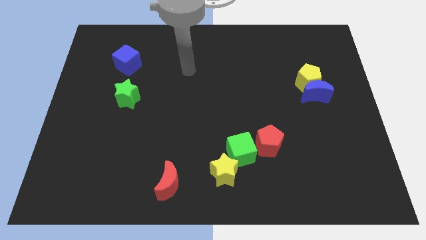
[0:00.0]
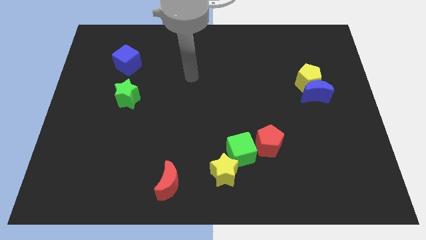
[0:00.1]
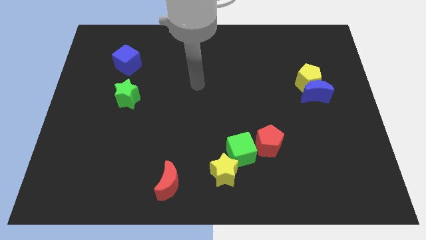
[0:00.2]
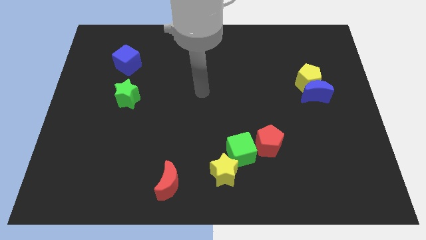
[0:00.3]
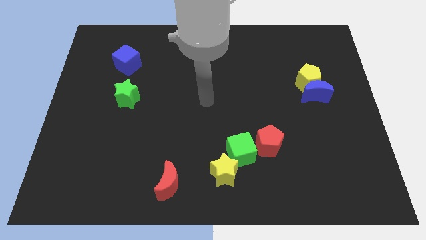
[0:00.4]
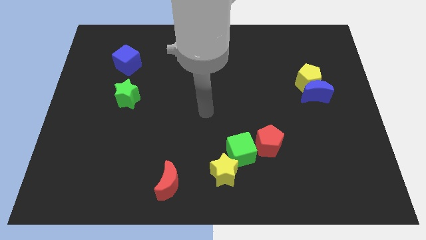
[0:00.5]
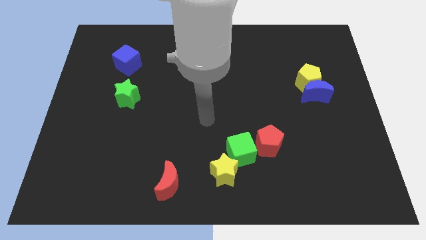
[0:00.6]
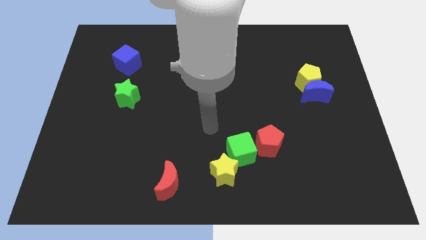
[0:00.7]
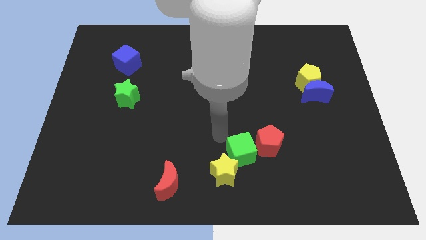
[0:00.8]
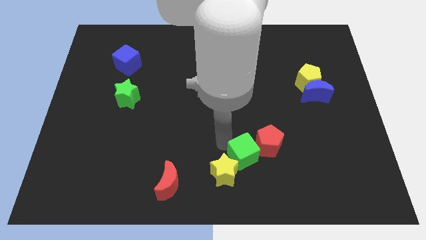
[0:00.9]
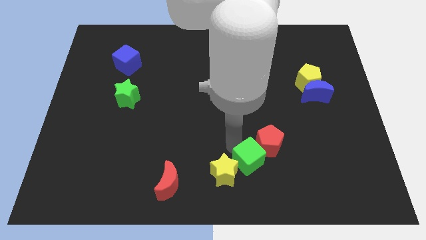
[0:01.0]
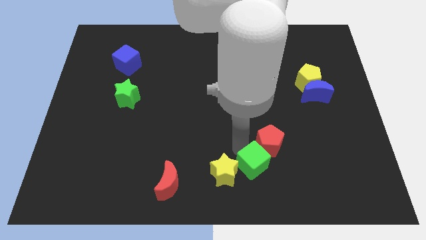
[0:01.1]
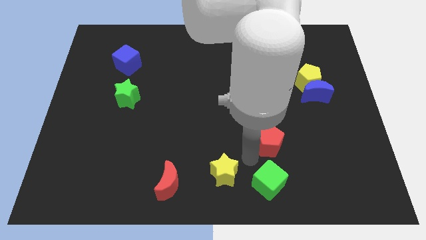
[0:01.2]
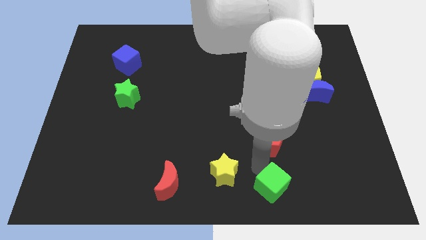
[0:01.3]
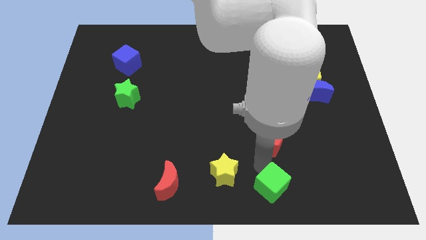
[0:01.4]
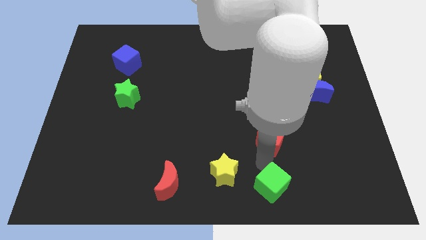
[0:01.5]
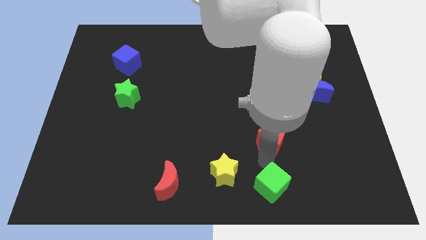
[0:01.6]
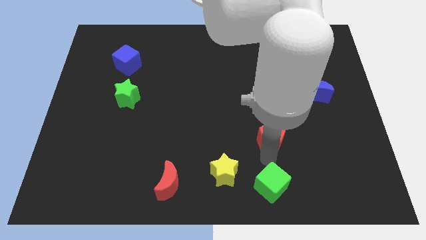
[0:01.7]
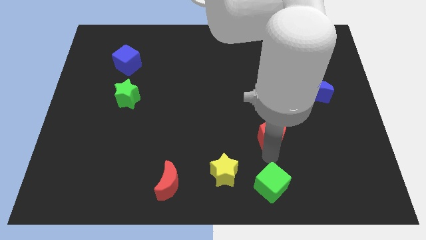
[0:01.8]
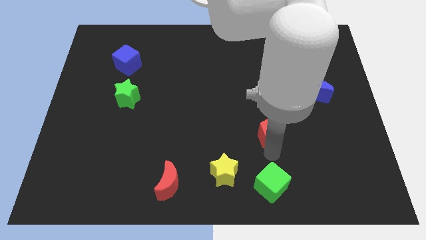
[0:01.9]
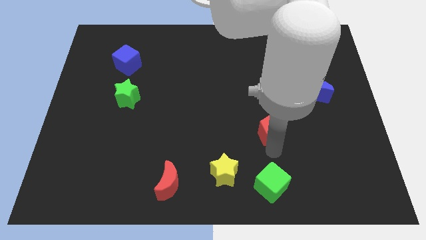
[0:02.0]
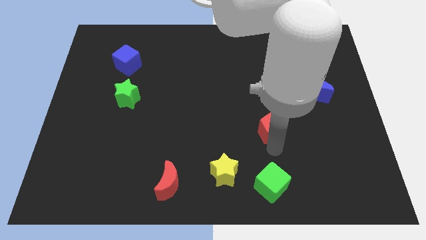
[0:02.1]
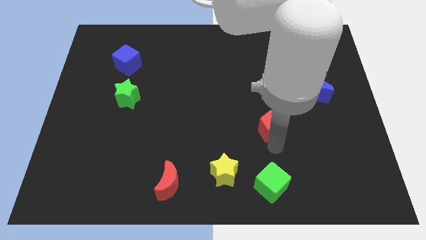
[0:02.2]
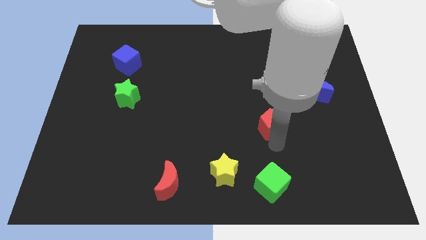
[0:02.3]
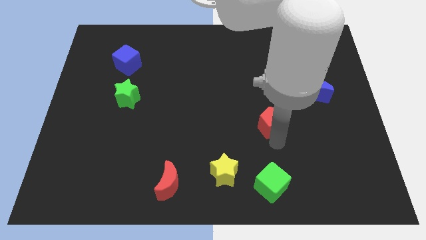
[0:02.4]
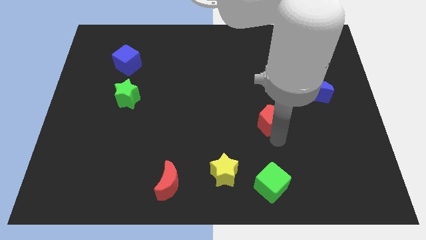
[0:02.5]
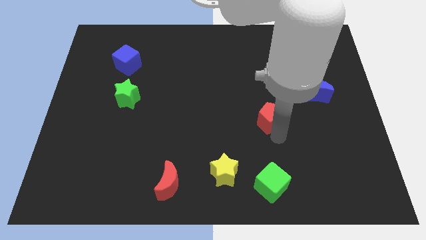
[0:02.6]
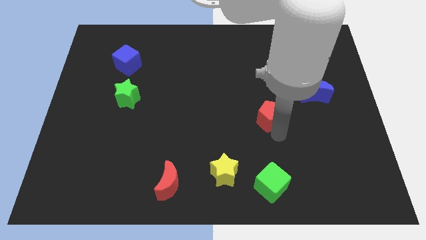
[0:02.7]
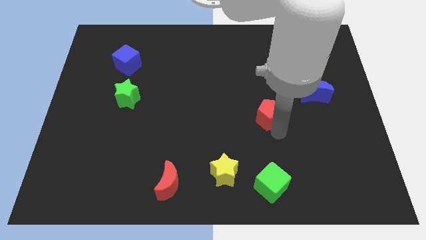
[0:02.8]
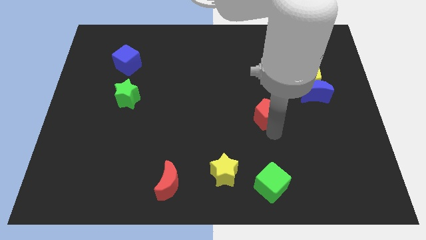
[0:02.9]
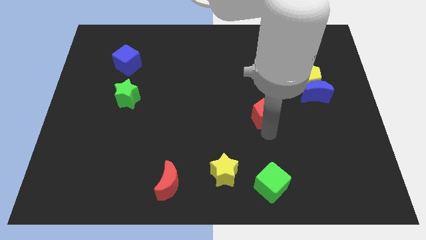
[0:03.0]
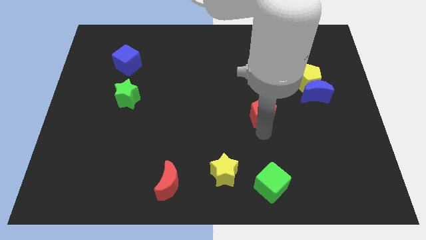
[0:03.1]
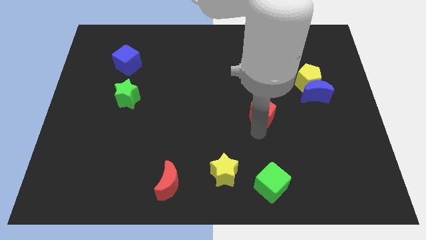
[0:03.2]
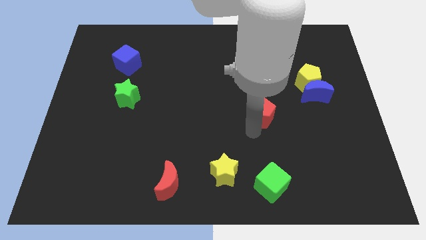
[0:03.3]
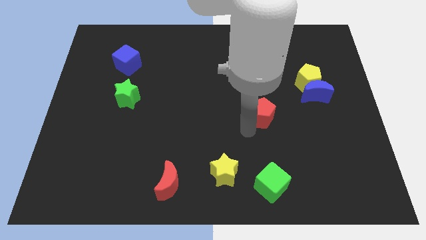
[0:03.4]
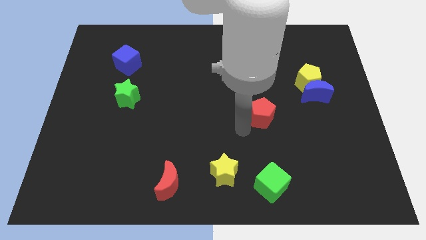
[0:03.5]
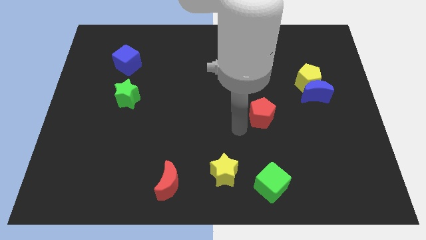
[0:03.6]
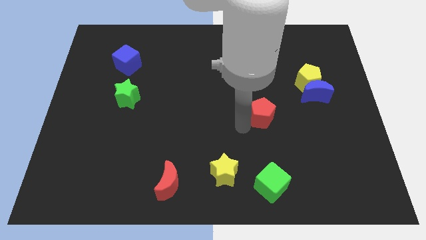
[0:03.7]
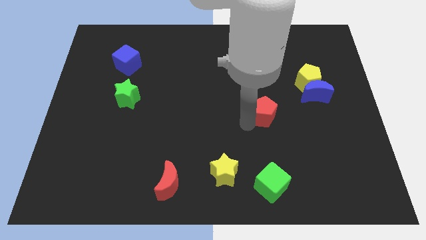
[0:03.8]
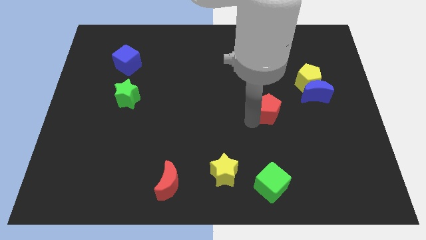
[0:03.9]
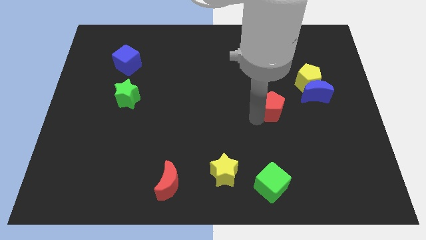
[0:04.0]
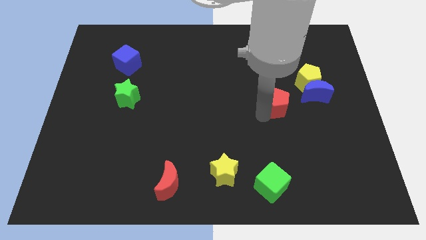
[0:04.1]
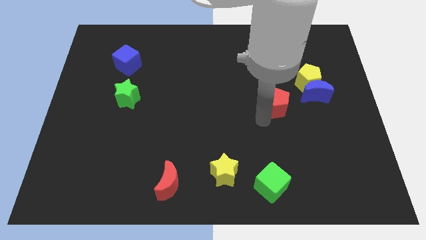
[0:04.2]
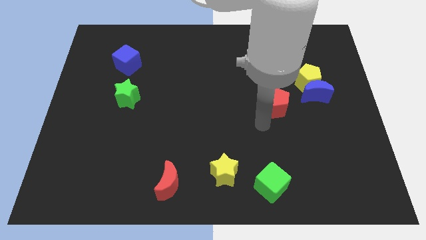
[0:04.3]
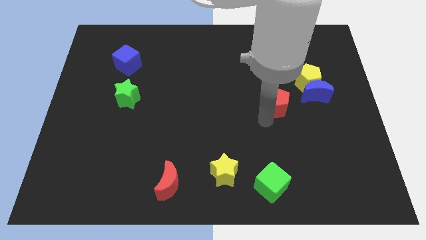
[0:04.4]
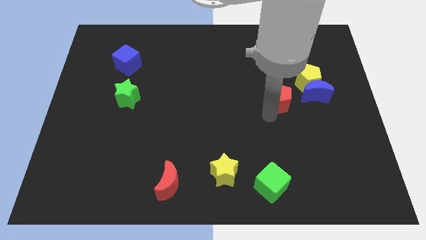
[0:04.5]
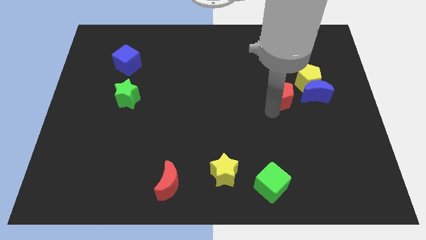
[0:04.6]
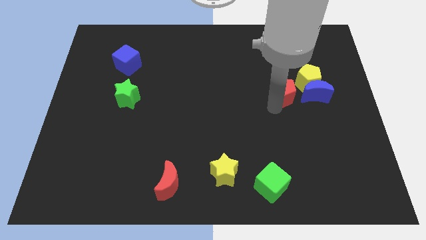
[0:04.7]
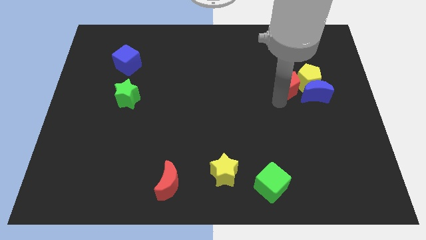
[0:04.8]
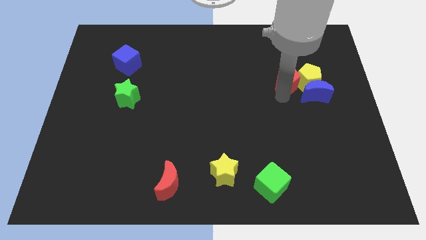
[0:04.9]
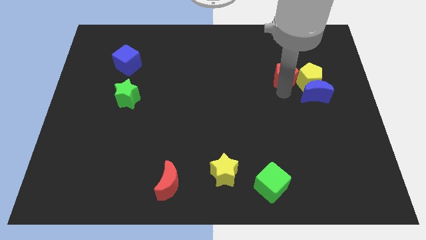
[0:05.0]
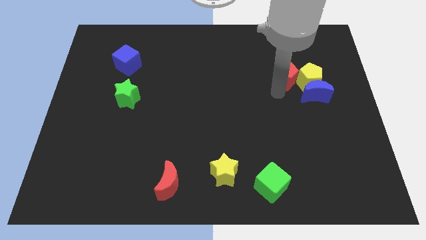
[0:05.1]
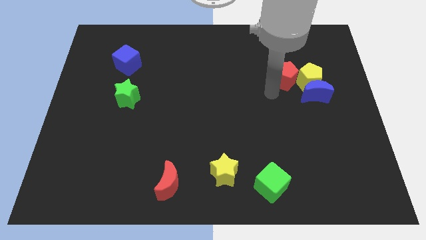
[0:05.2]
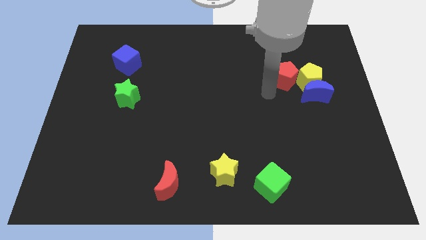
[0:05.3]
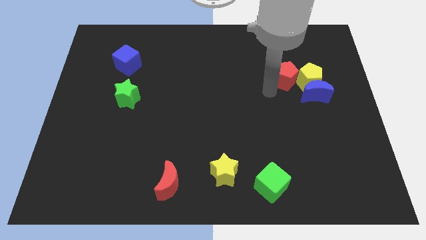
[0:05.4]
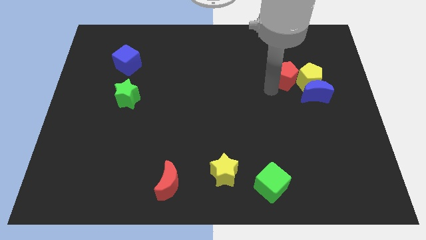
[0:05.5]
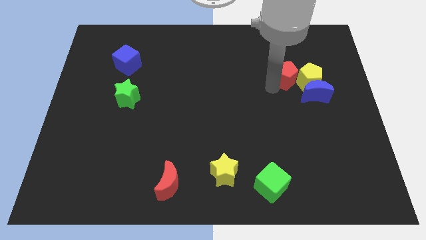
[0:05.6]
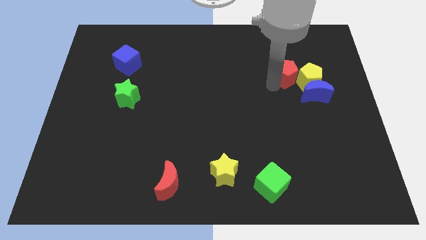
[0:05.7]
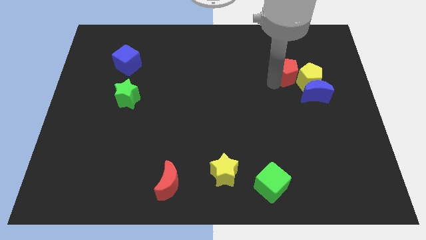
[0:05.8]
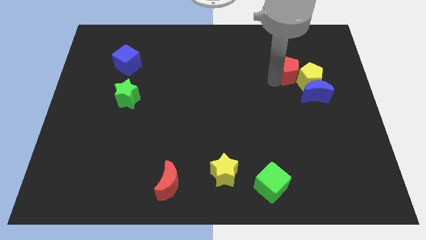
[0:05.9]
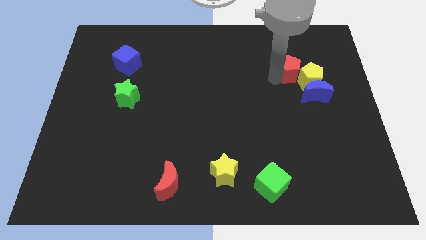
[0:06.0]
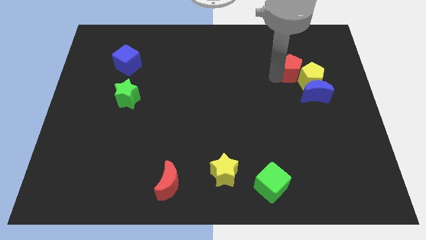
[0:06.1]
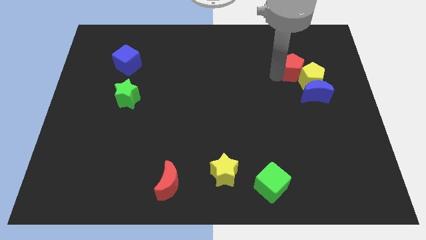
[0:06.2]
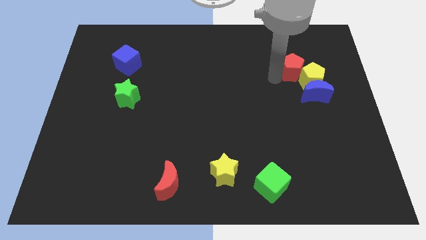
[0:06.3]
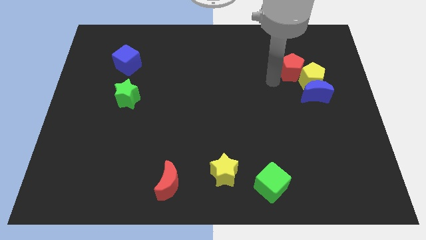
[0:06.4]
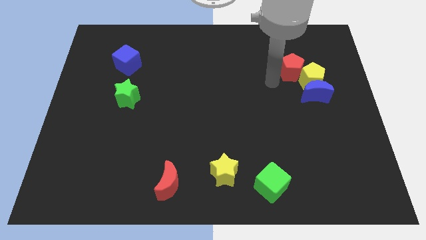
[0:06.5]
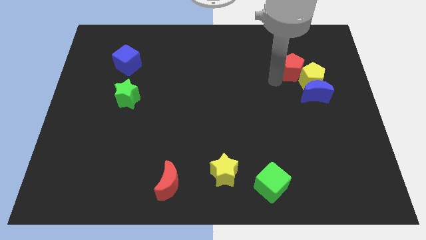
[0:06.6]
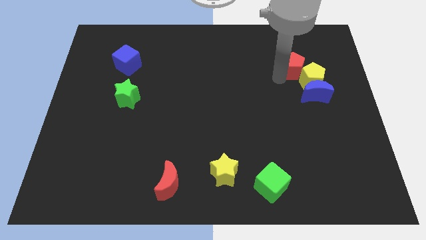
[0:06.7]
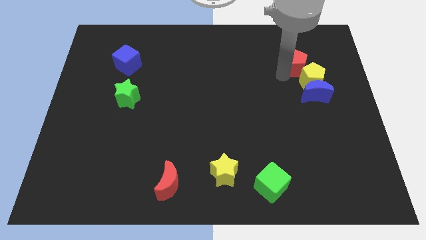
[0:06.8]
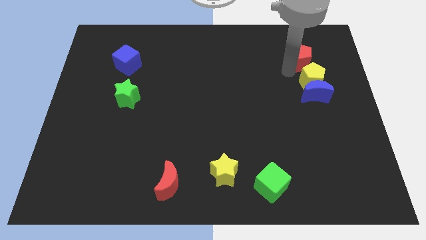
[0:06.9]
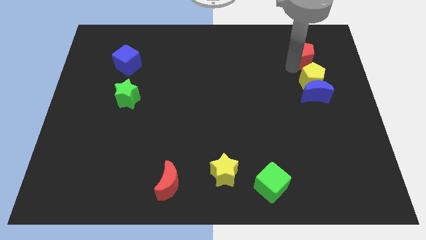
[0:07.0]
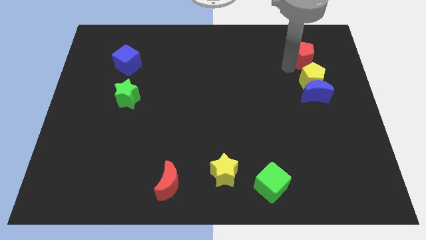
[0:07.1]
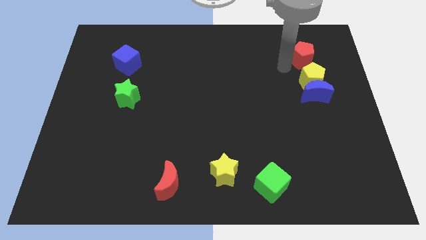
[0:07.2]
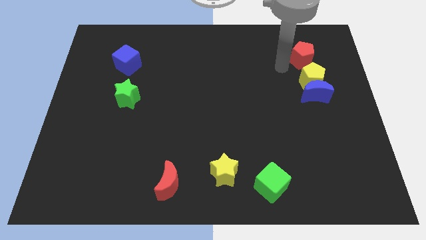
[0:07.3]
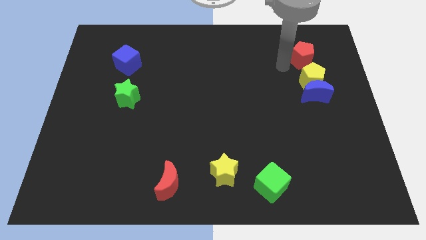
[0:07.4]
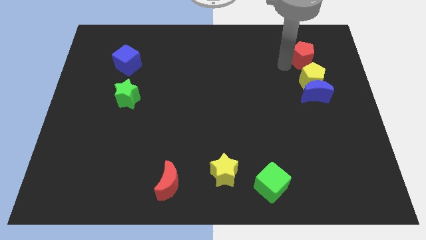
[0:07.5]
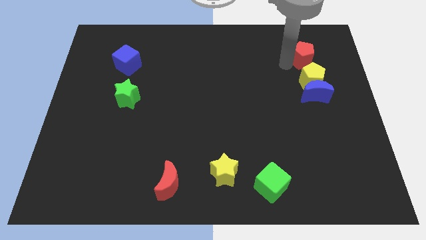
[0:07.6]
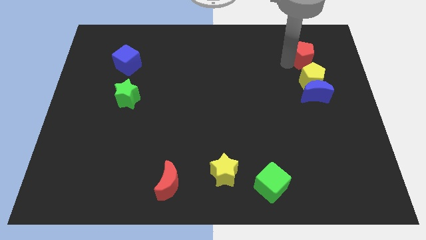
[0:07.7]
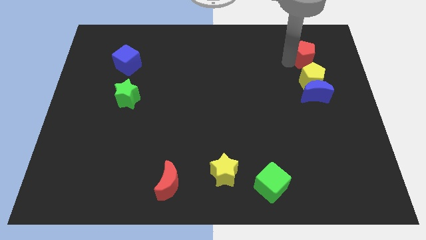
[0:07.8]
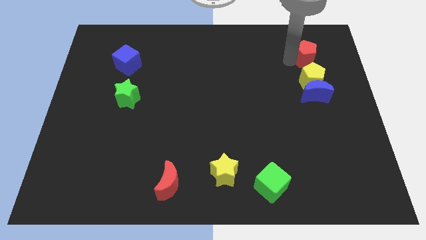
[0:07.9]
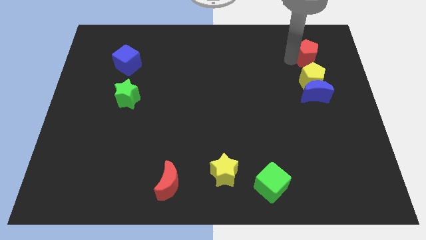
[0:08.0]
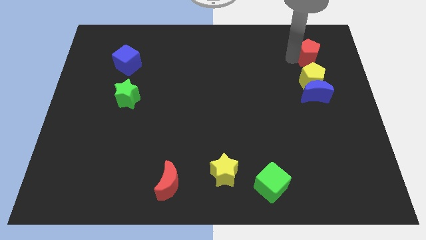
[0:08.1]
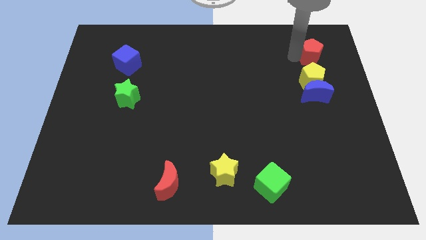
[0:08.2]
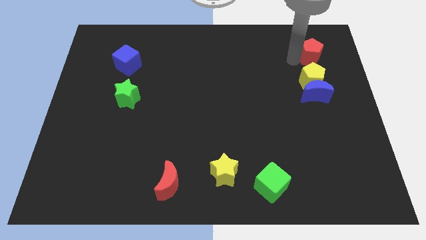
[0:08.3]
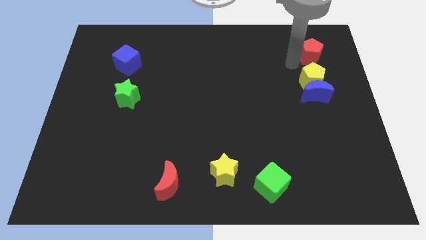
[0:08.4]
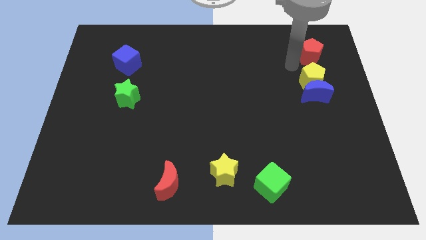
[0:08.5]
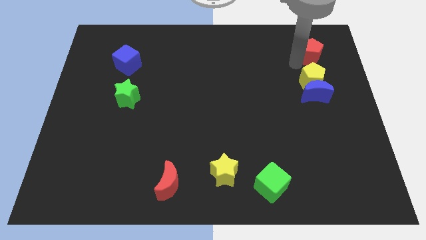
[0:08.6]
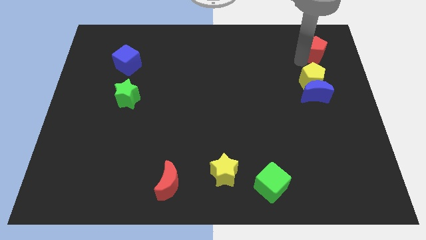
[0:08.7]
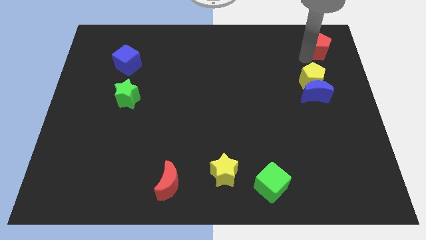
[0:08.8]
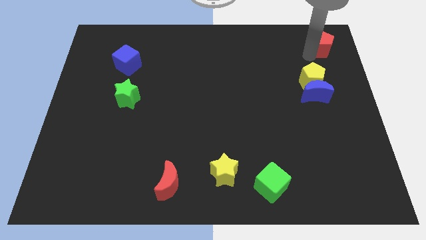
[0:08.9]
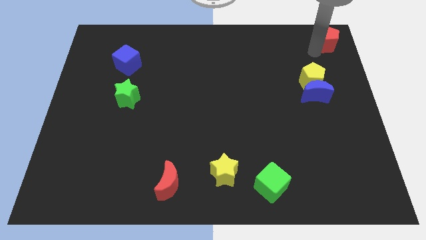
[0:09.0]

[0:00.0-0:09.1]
slide the red pentagon to the top right
